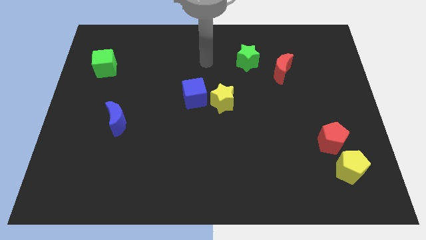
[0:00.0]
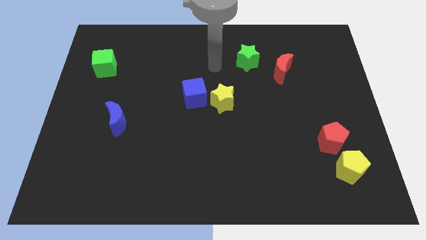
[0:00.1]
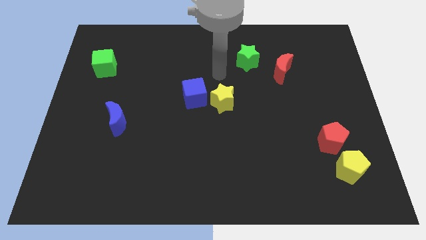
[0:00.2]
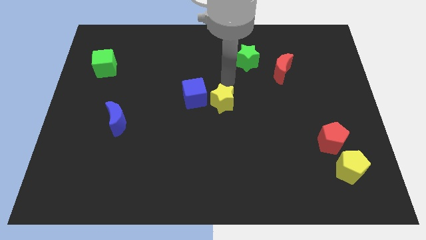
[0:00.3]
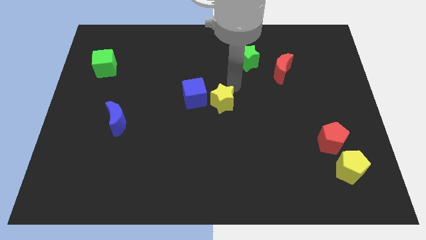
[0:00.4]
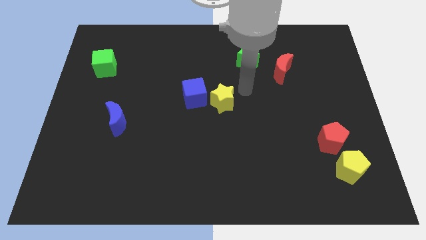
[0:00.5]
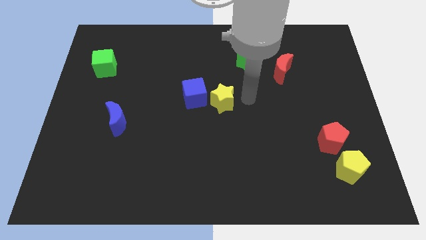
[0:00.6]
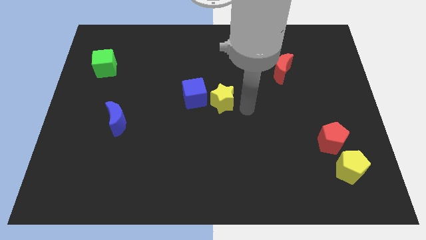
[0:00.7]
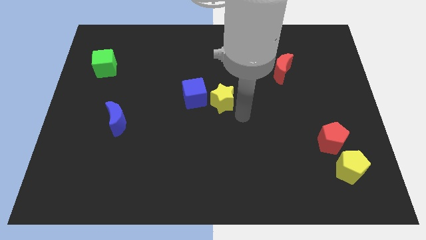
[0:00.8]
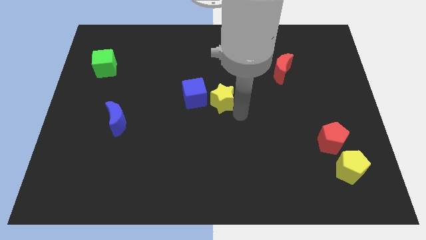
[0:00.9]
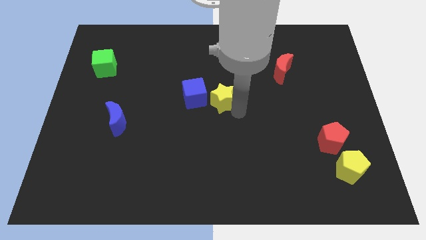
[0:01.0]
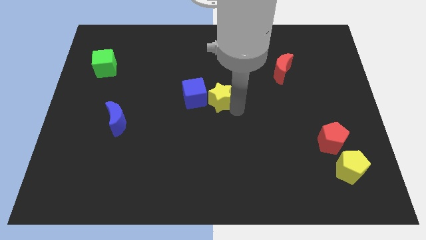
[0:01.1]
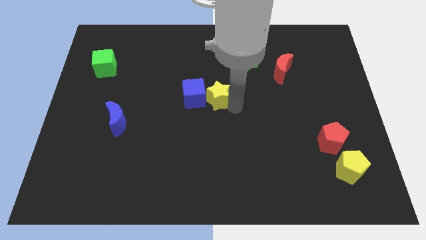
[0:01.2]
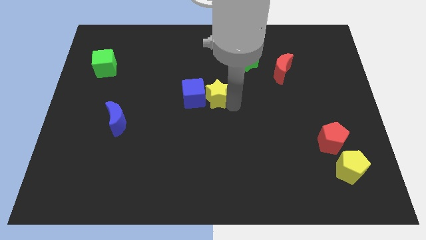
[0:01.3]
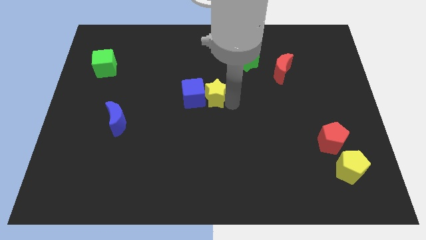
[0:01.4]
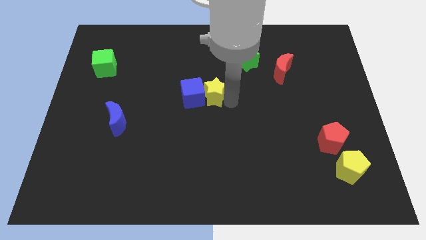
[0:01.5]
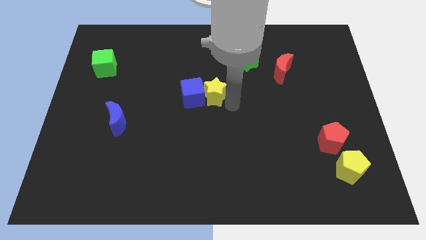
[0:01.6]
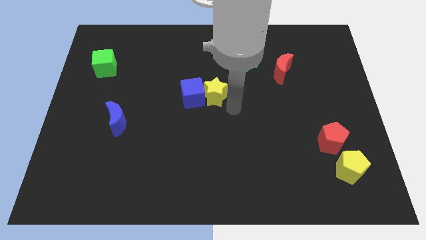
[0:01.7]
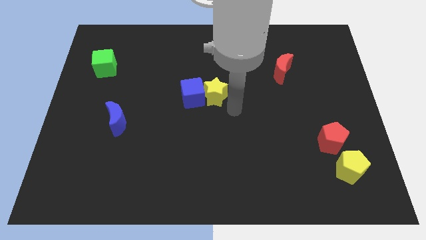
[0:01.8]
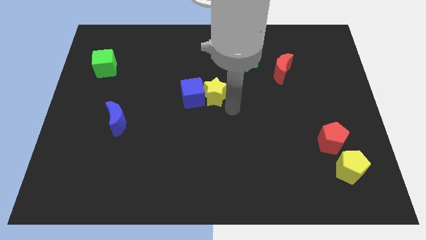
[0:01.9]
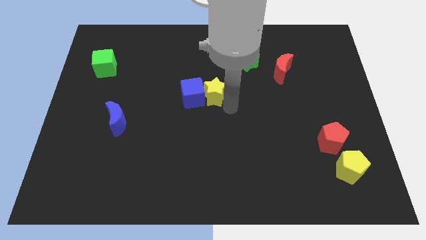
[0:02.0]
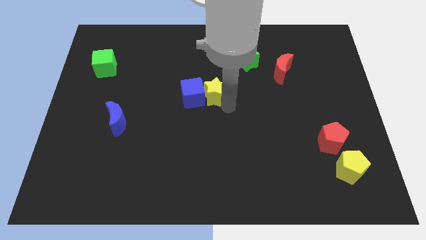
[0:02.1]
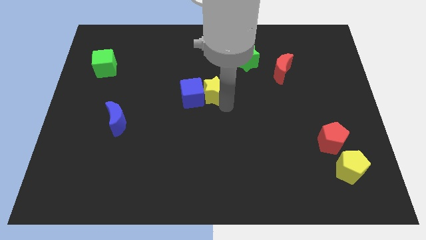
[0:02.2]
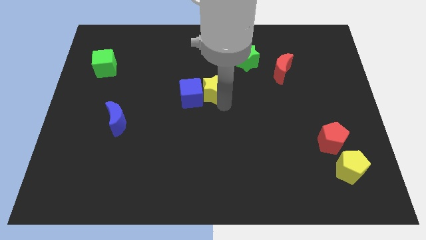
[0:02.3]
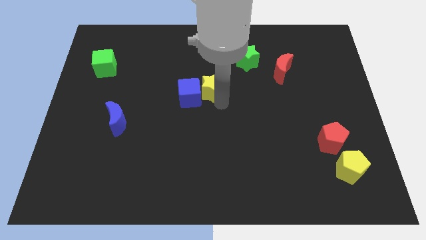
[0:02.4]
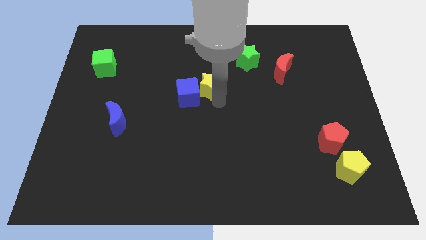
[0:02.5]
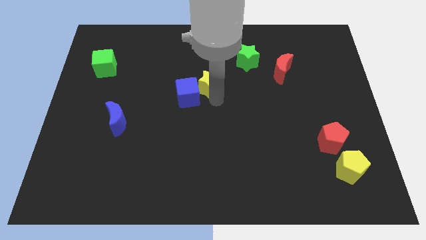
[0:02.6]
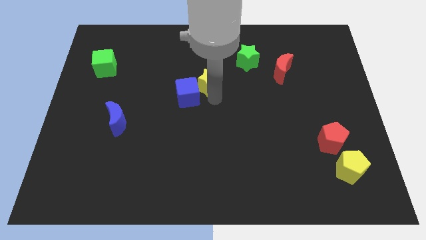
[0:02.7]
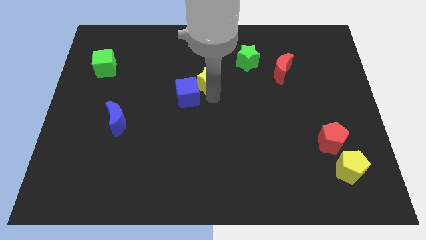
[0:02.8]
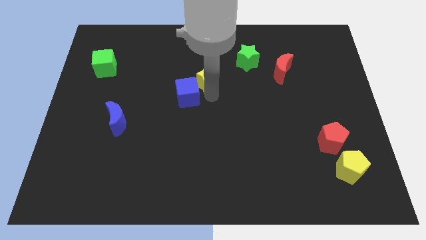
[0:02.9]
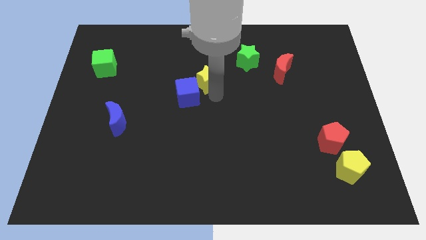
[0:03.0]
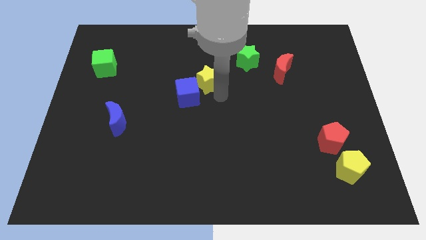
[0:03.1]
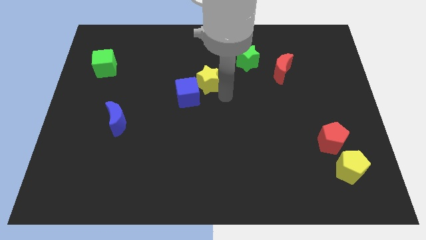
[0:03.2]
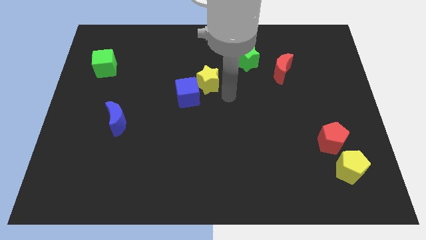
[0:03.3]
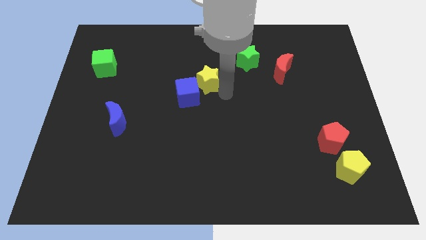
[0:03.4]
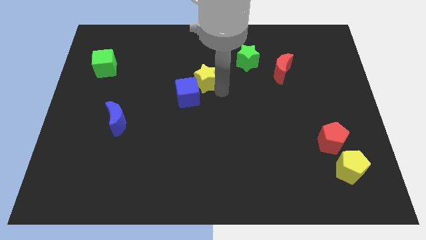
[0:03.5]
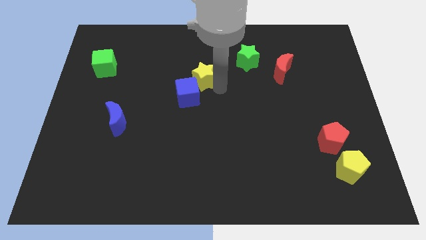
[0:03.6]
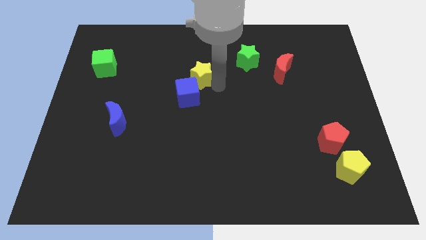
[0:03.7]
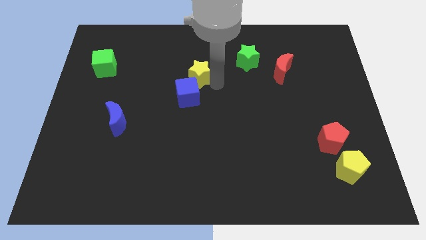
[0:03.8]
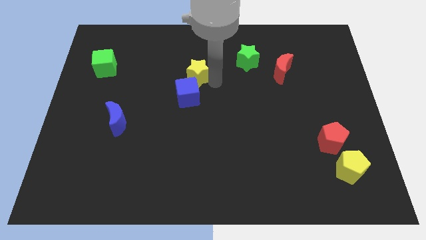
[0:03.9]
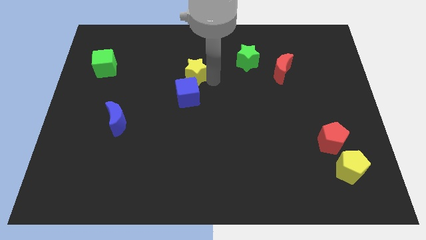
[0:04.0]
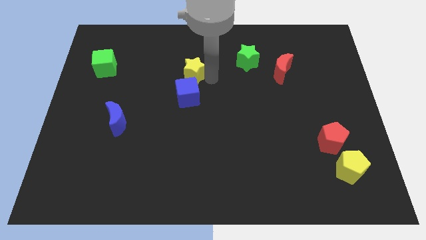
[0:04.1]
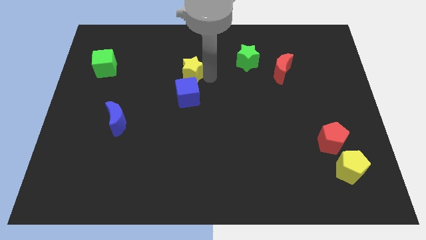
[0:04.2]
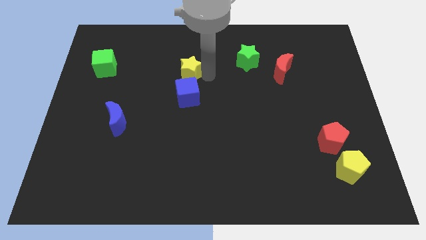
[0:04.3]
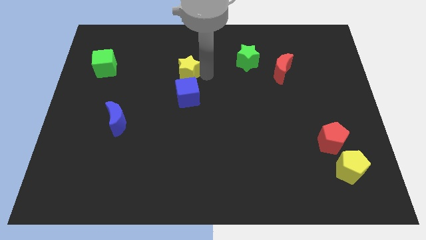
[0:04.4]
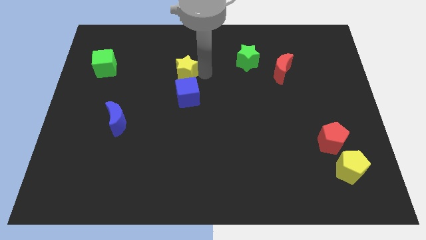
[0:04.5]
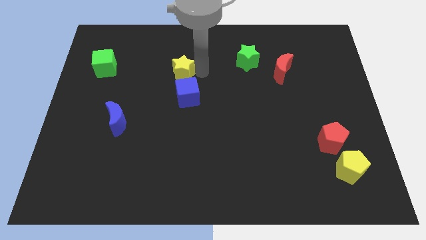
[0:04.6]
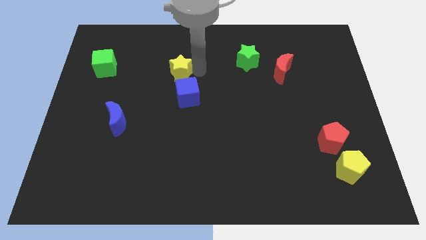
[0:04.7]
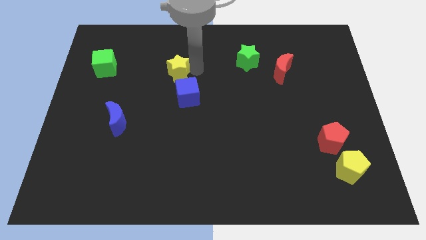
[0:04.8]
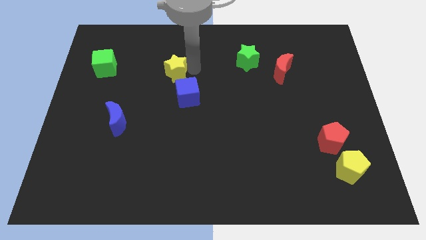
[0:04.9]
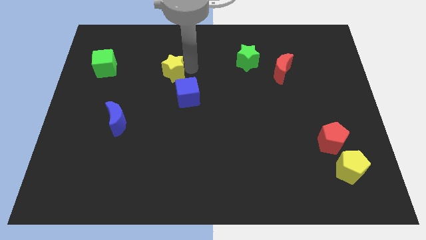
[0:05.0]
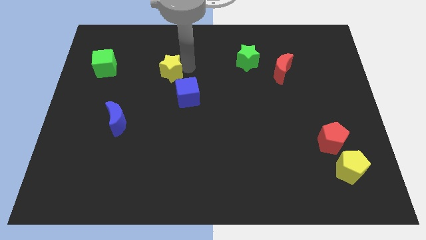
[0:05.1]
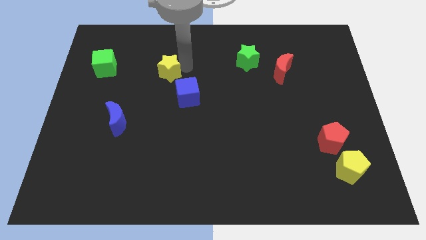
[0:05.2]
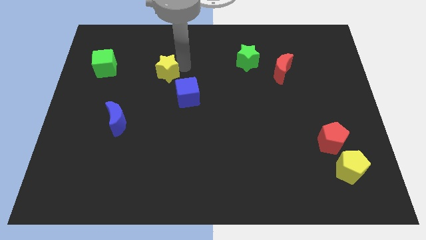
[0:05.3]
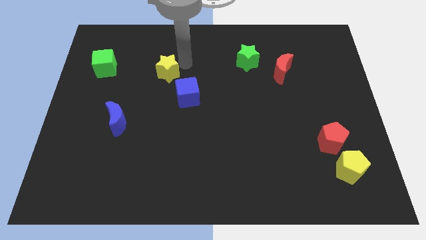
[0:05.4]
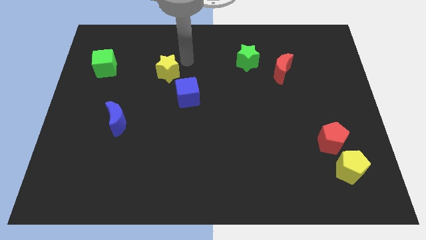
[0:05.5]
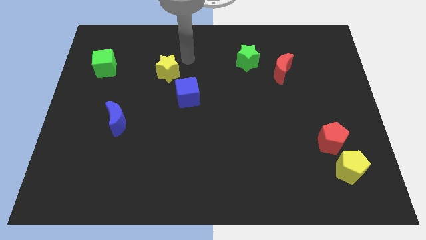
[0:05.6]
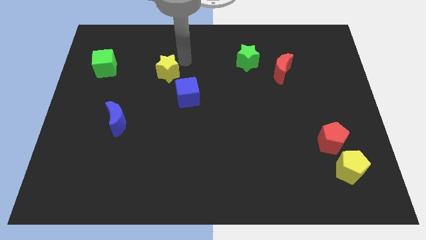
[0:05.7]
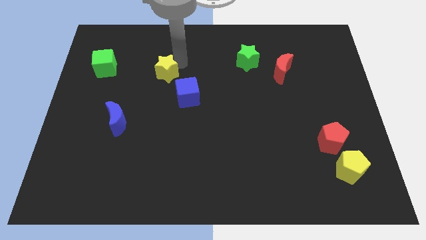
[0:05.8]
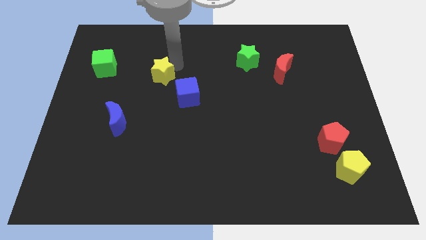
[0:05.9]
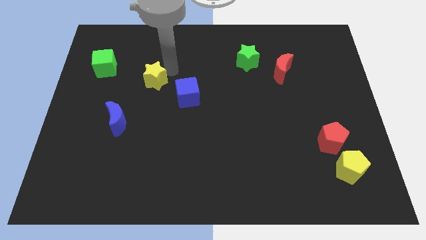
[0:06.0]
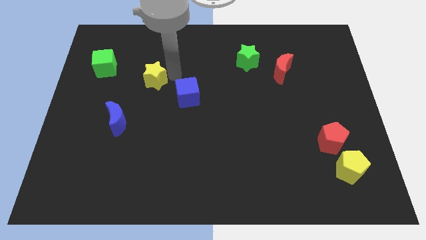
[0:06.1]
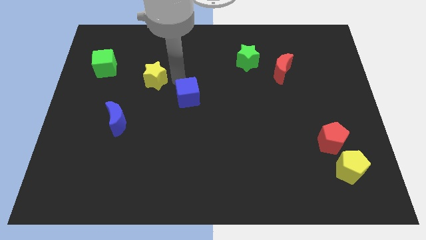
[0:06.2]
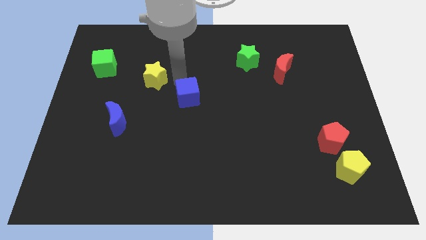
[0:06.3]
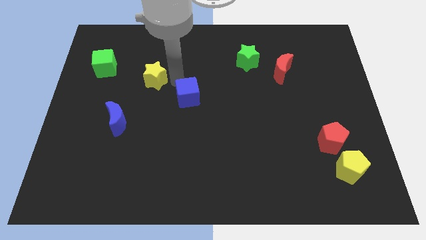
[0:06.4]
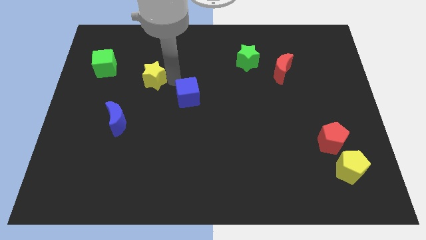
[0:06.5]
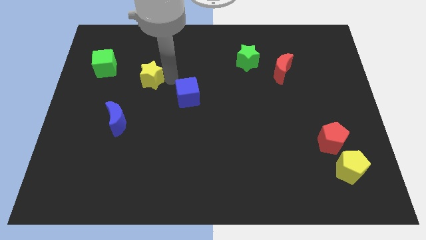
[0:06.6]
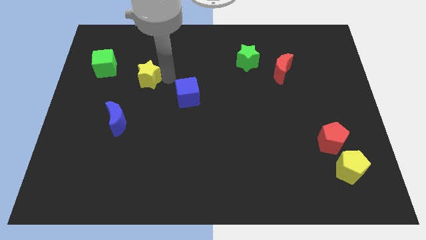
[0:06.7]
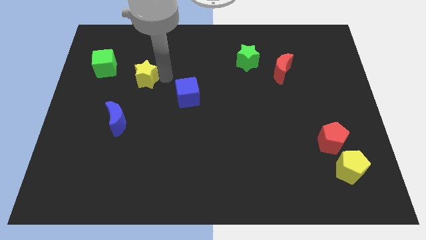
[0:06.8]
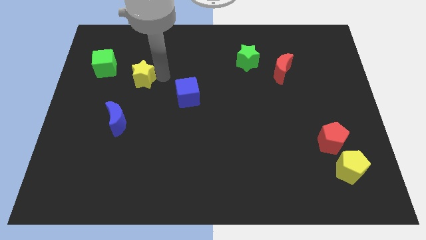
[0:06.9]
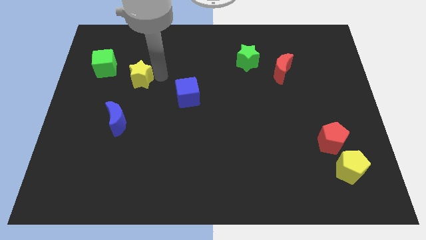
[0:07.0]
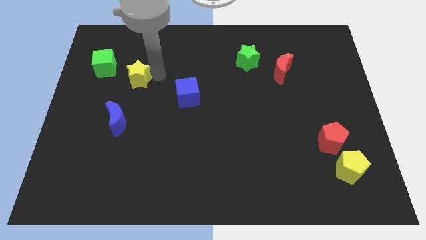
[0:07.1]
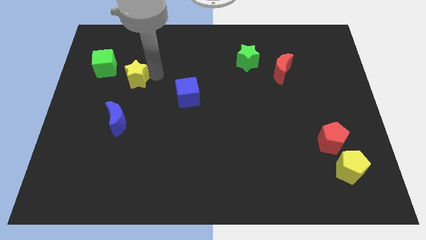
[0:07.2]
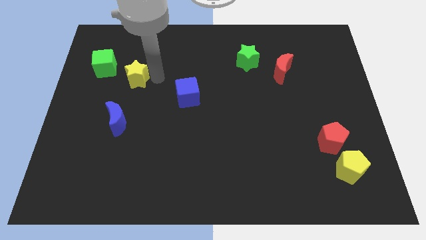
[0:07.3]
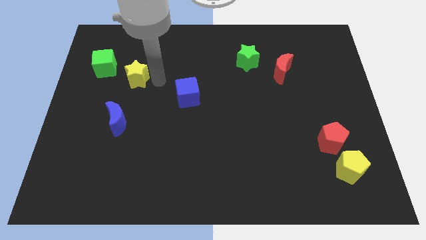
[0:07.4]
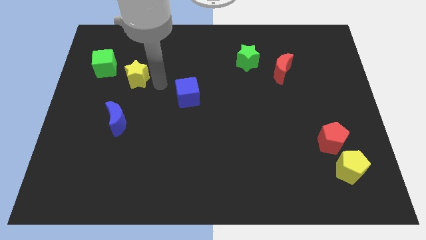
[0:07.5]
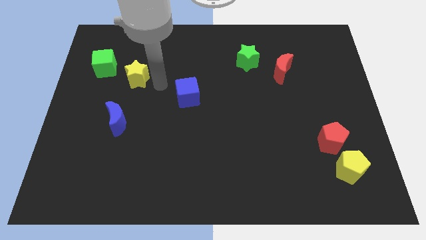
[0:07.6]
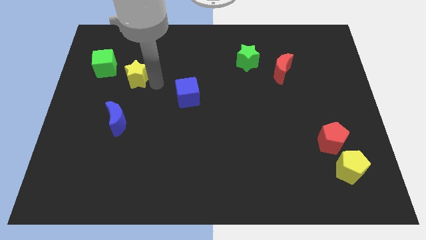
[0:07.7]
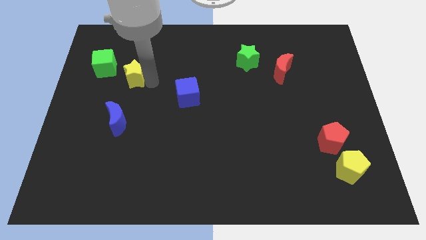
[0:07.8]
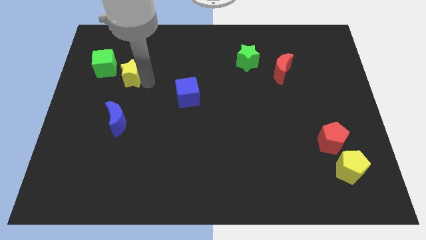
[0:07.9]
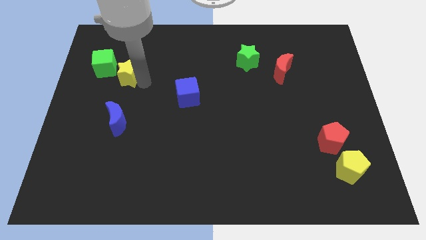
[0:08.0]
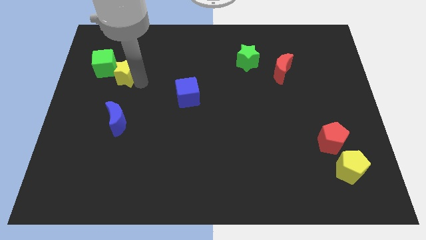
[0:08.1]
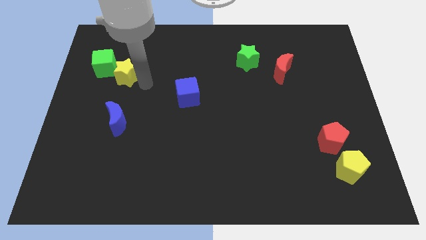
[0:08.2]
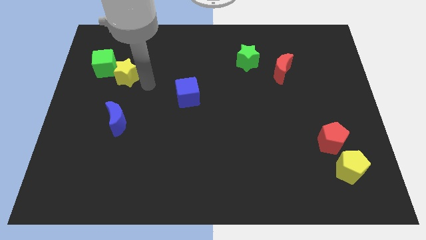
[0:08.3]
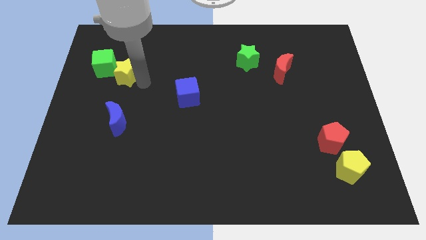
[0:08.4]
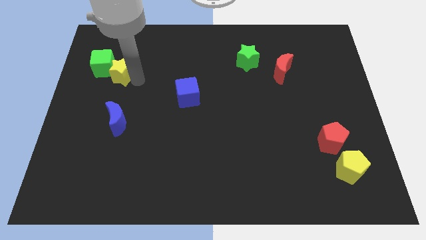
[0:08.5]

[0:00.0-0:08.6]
put the yellow star next to the green cube
